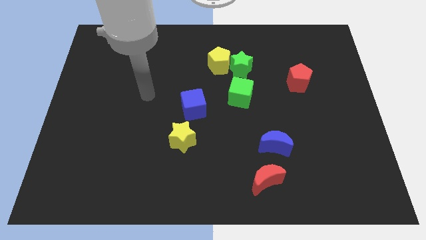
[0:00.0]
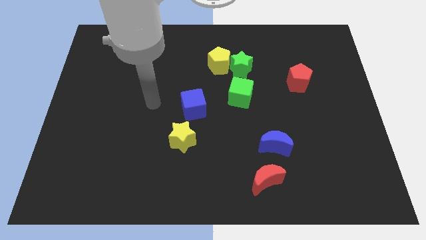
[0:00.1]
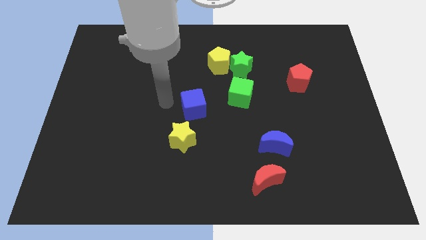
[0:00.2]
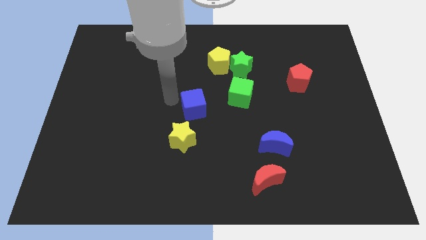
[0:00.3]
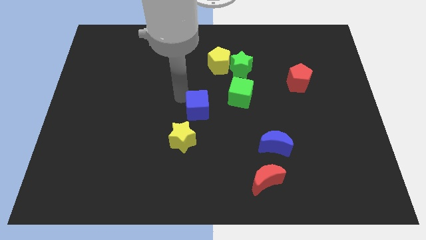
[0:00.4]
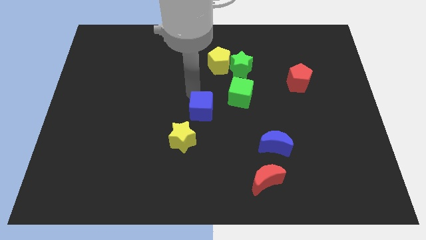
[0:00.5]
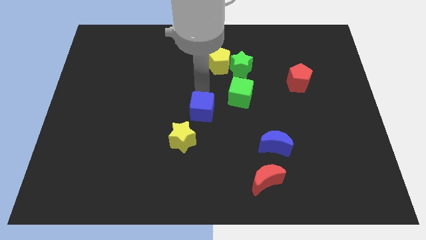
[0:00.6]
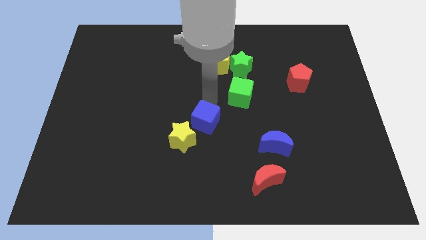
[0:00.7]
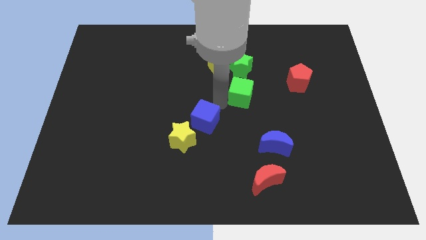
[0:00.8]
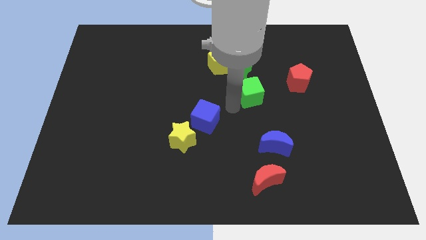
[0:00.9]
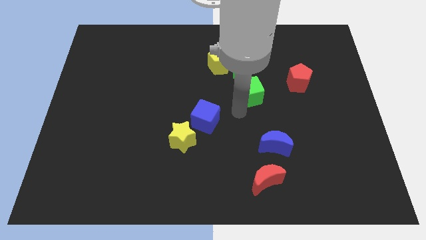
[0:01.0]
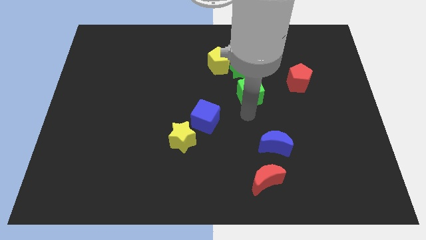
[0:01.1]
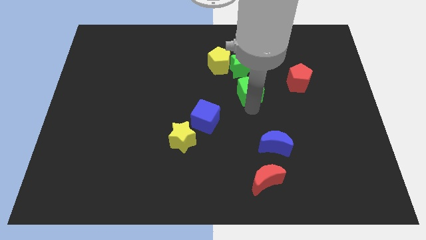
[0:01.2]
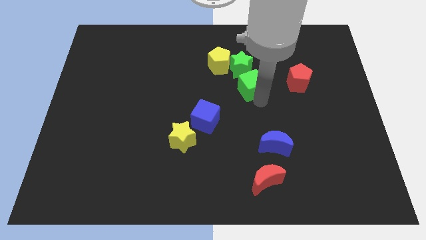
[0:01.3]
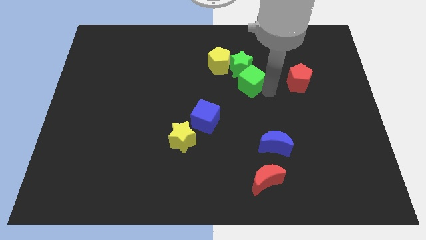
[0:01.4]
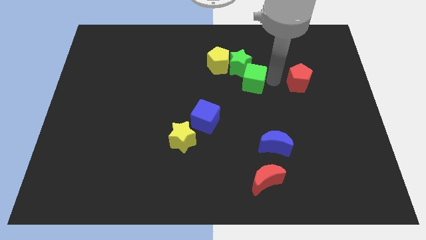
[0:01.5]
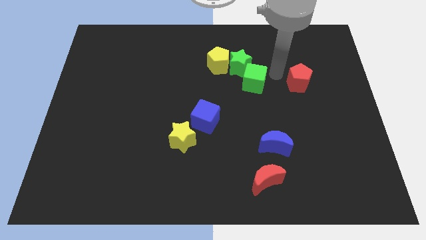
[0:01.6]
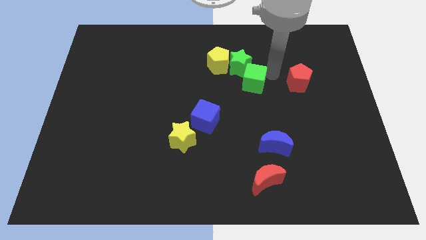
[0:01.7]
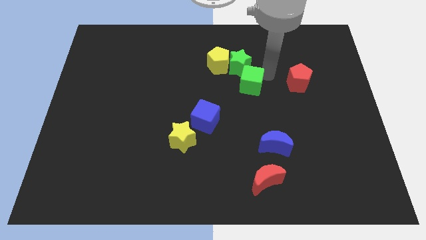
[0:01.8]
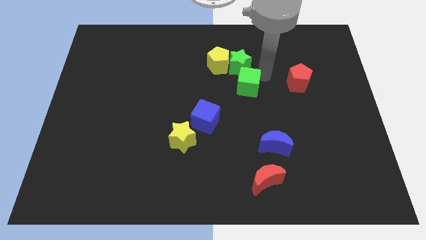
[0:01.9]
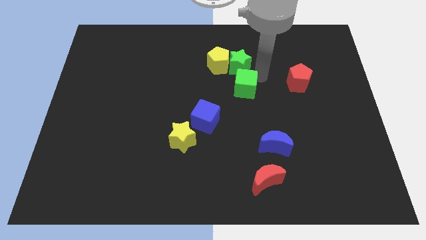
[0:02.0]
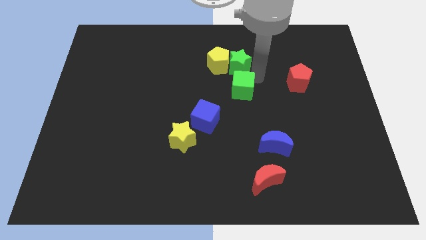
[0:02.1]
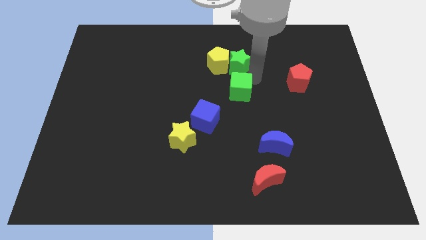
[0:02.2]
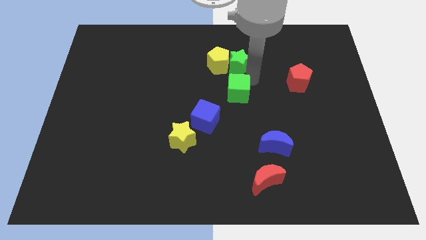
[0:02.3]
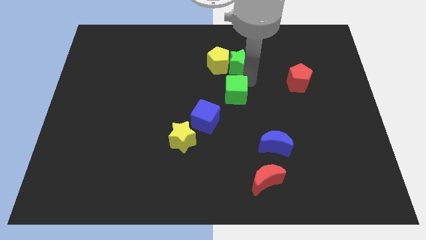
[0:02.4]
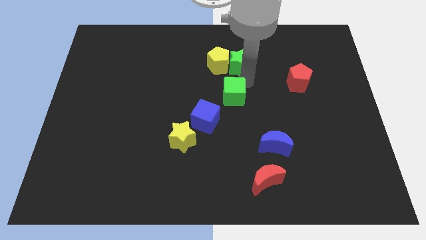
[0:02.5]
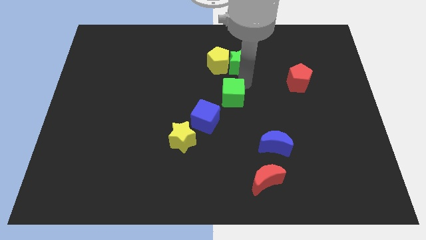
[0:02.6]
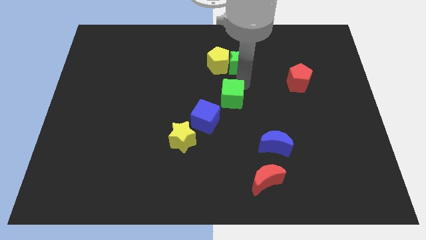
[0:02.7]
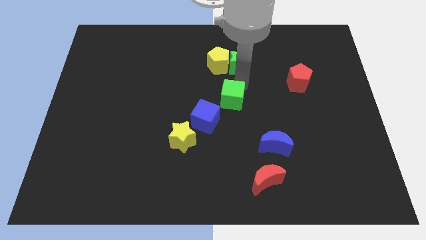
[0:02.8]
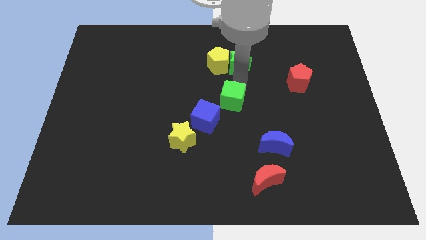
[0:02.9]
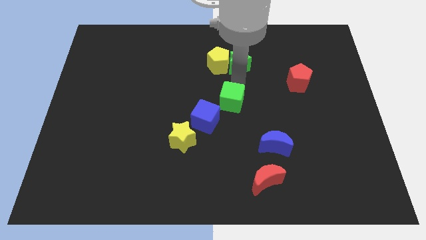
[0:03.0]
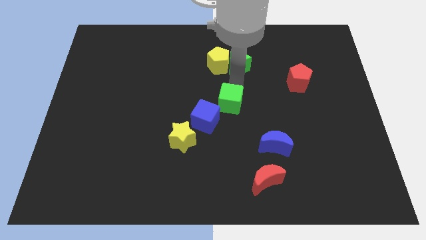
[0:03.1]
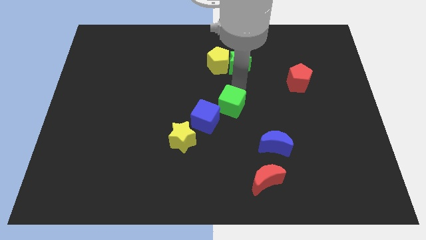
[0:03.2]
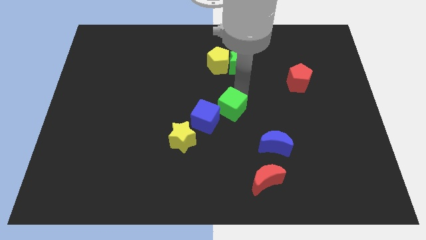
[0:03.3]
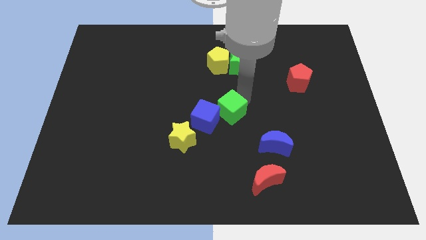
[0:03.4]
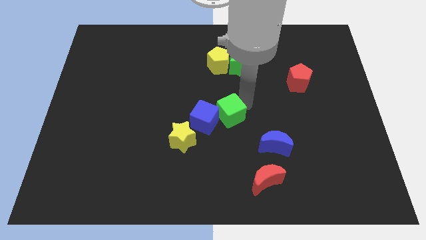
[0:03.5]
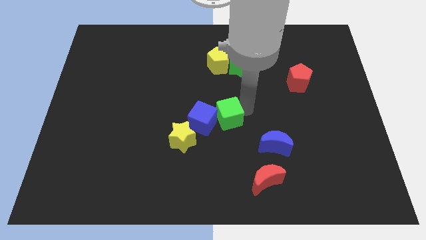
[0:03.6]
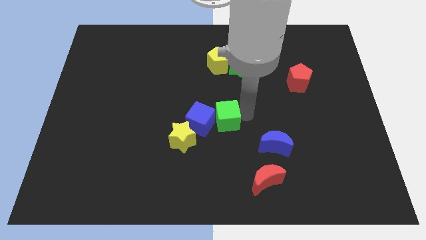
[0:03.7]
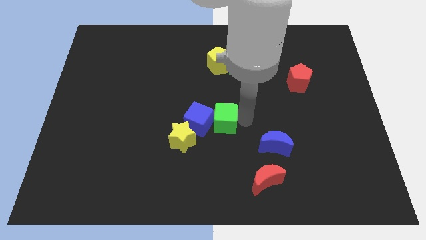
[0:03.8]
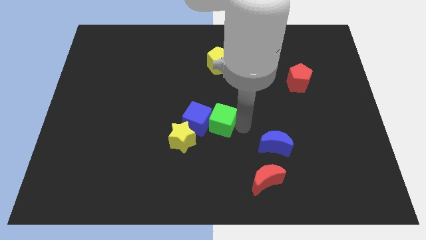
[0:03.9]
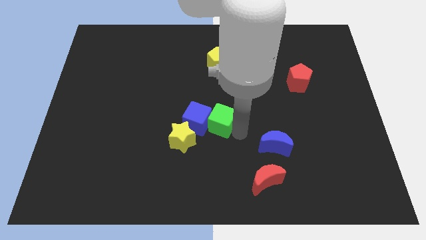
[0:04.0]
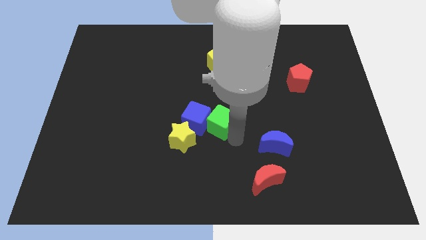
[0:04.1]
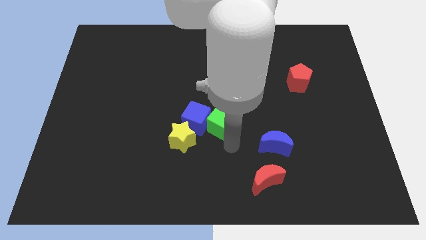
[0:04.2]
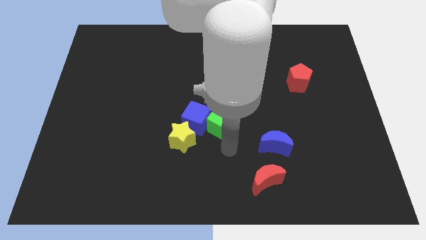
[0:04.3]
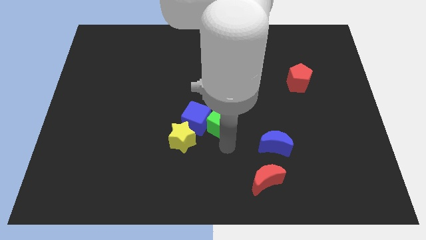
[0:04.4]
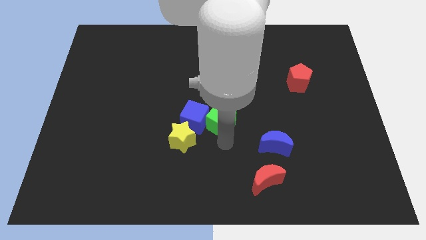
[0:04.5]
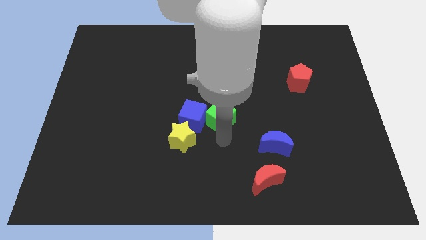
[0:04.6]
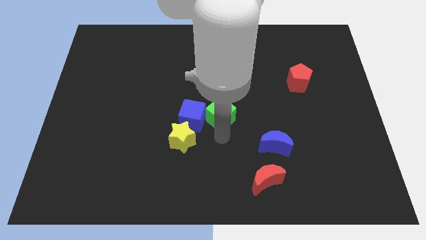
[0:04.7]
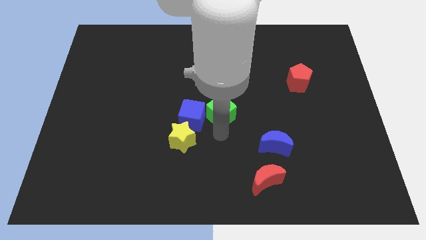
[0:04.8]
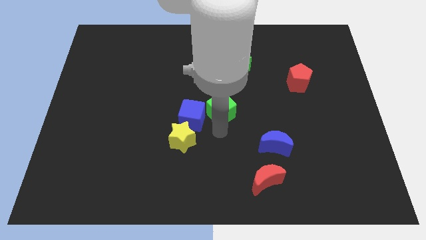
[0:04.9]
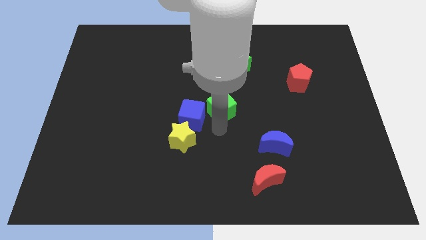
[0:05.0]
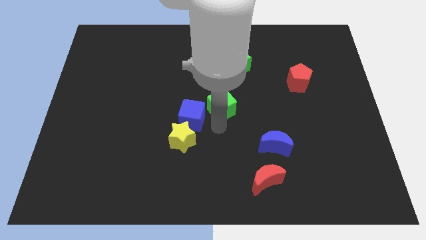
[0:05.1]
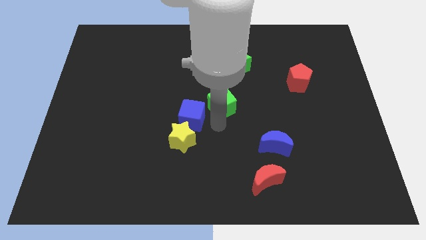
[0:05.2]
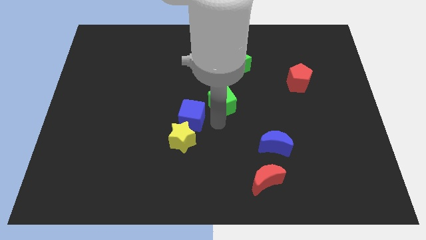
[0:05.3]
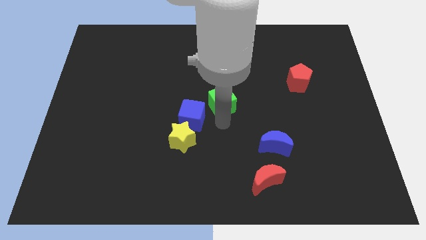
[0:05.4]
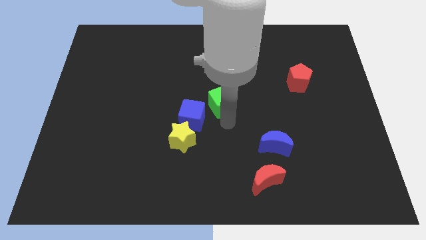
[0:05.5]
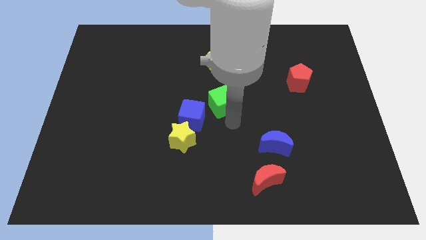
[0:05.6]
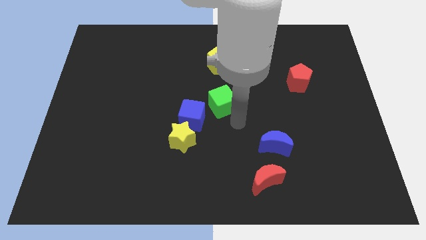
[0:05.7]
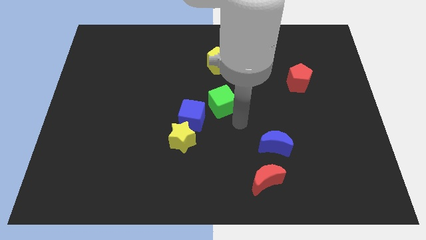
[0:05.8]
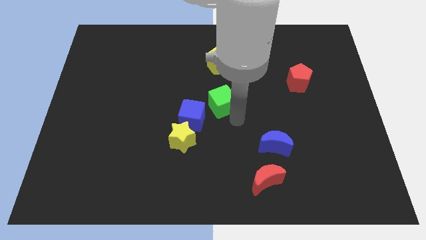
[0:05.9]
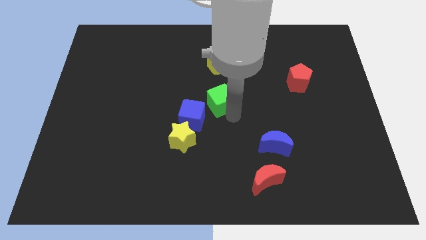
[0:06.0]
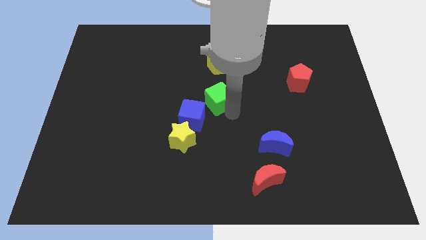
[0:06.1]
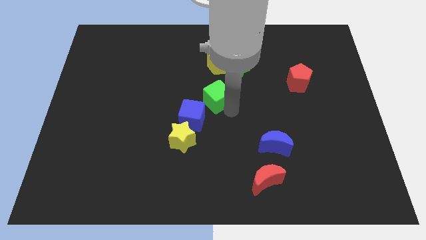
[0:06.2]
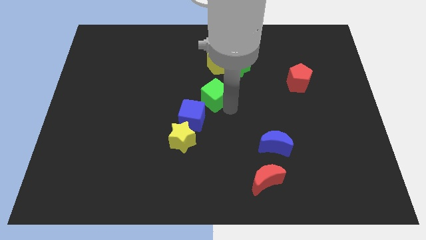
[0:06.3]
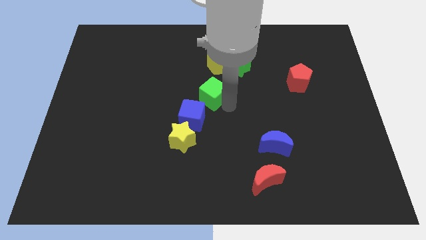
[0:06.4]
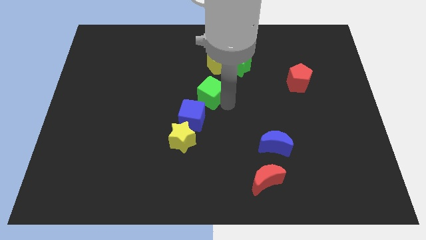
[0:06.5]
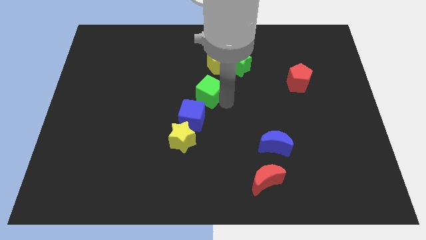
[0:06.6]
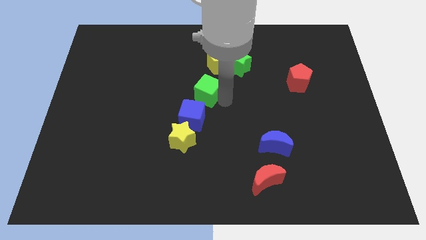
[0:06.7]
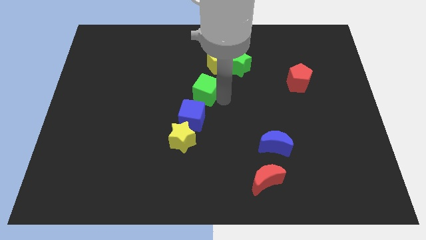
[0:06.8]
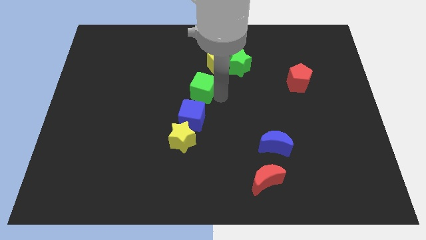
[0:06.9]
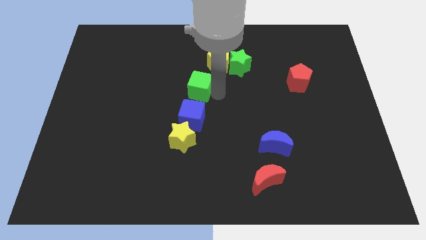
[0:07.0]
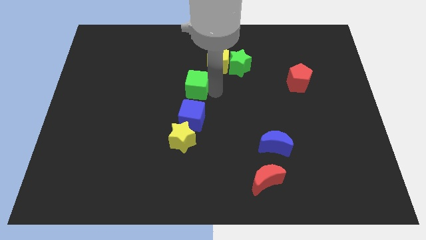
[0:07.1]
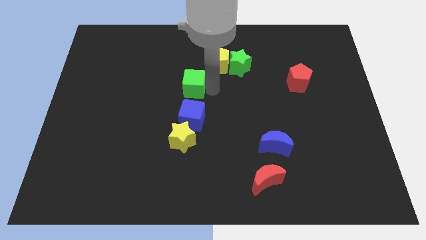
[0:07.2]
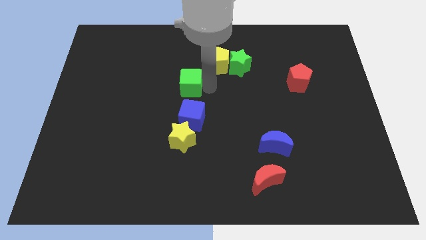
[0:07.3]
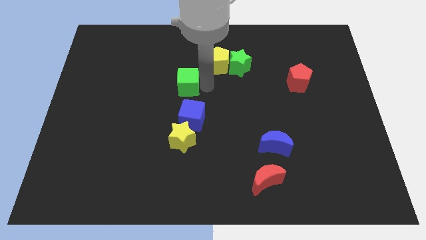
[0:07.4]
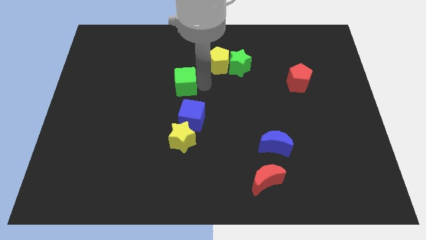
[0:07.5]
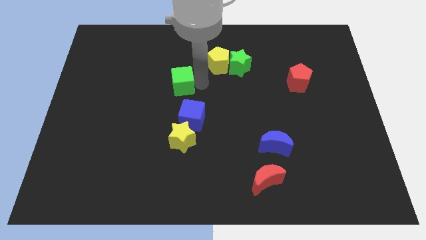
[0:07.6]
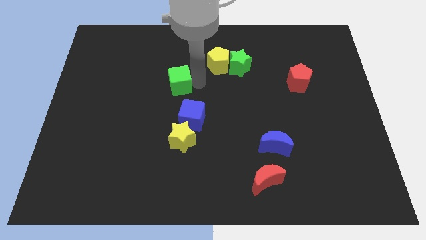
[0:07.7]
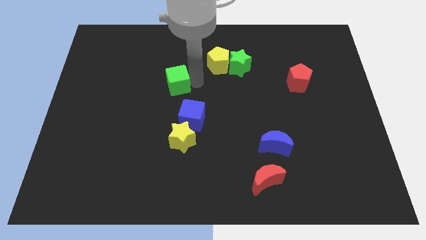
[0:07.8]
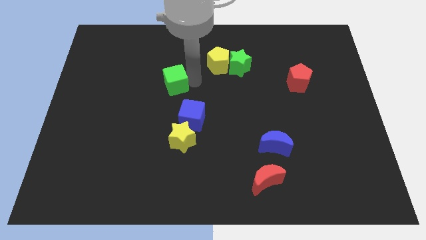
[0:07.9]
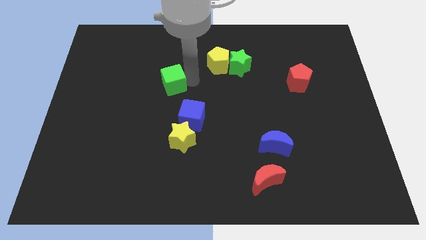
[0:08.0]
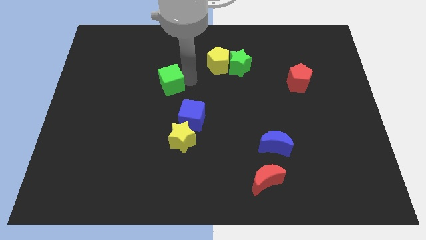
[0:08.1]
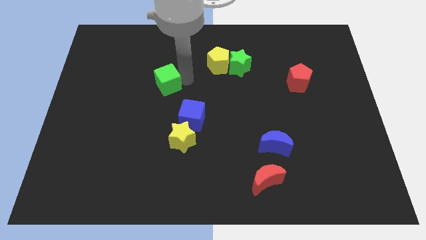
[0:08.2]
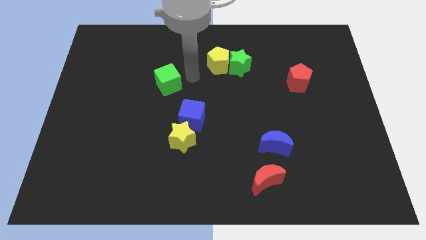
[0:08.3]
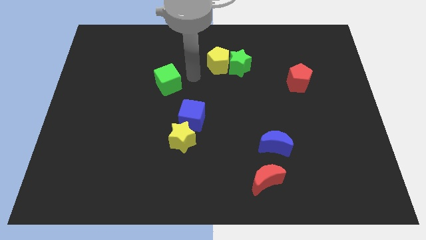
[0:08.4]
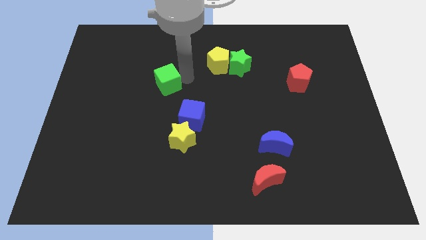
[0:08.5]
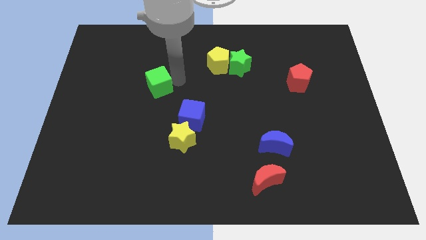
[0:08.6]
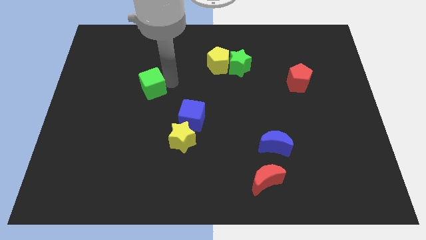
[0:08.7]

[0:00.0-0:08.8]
move the green cube to the left
